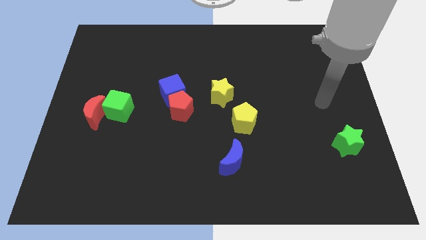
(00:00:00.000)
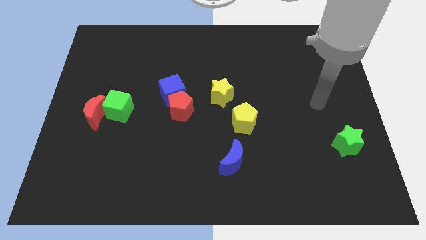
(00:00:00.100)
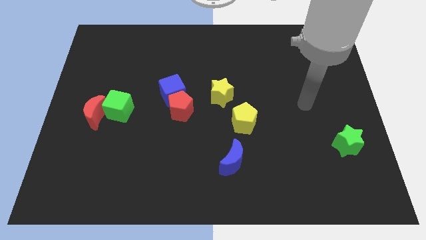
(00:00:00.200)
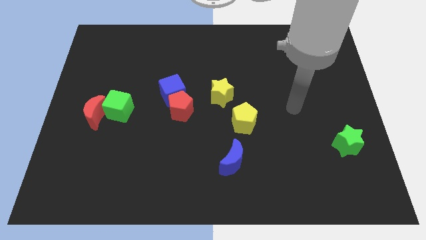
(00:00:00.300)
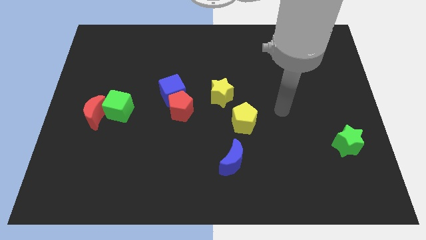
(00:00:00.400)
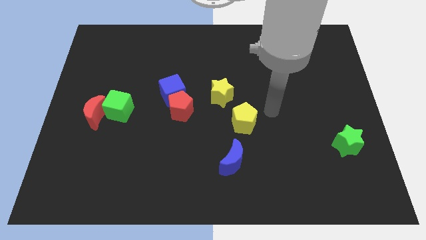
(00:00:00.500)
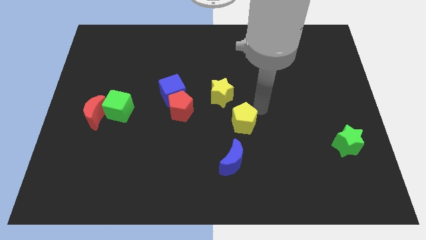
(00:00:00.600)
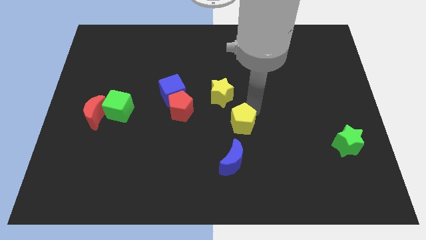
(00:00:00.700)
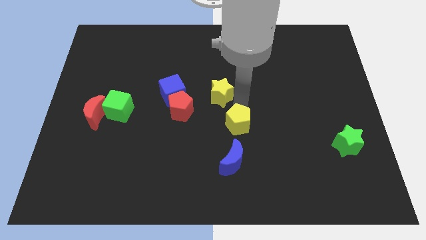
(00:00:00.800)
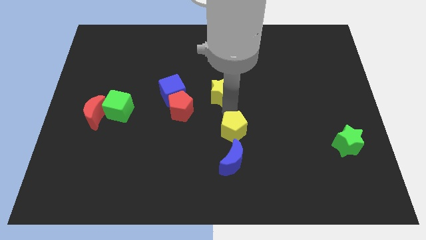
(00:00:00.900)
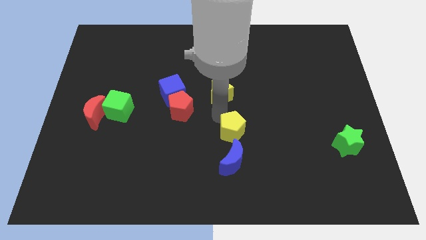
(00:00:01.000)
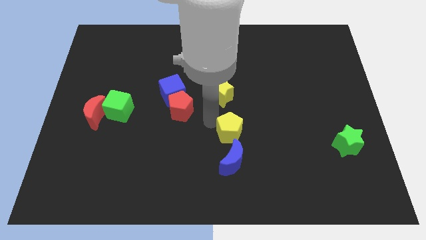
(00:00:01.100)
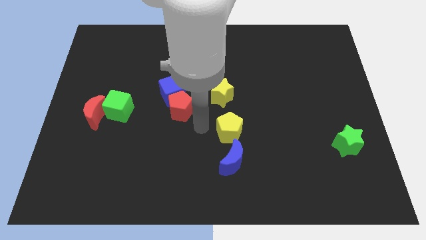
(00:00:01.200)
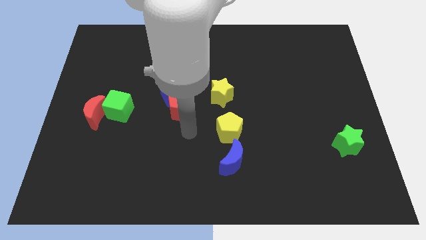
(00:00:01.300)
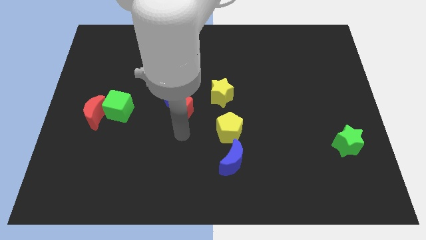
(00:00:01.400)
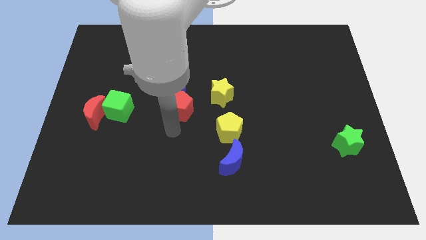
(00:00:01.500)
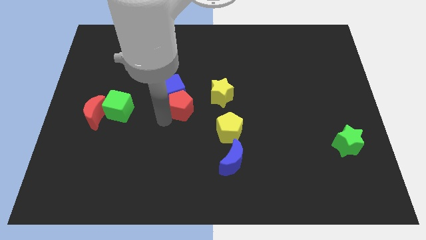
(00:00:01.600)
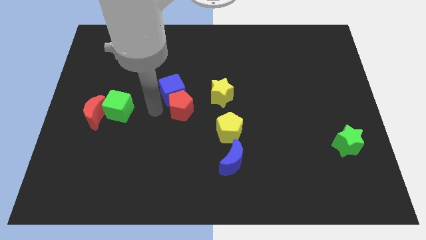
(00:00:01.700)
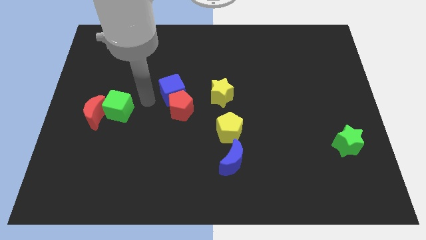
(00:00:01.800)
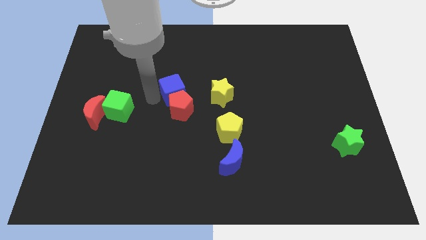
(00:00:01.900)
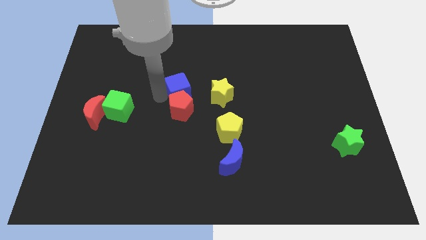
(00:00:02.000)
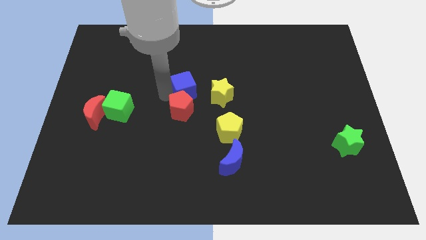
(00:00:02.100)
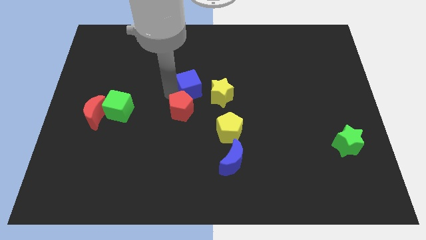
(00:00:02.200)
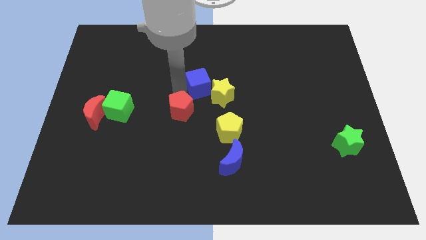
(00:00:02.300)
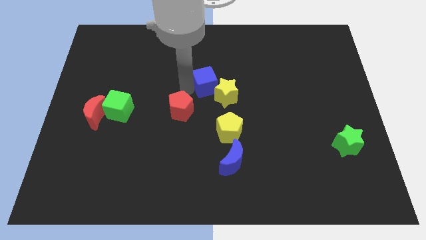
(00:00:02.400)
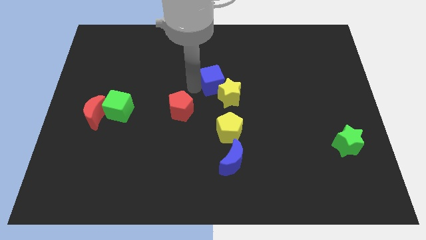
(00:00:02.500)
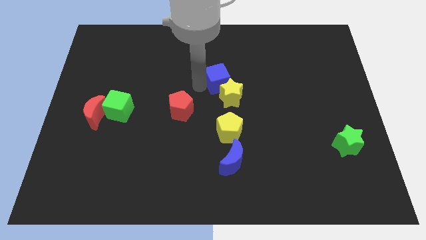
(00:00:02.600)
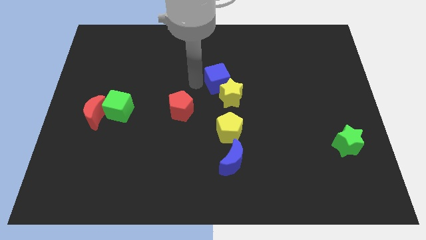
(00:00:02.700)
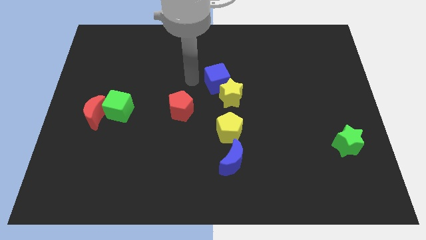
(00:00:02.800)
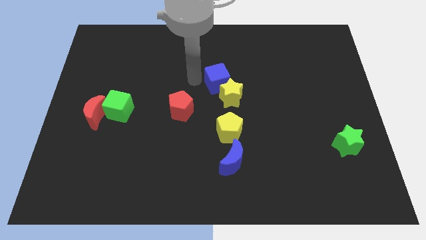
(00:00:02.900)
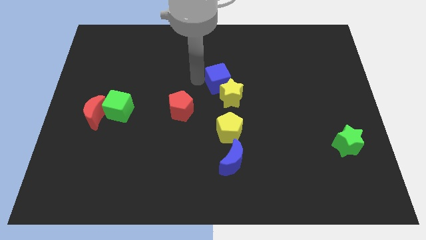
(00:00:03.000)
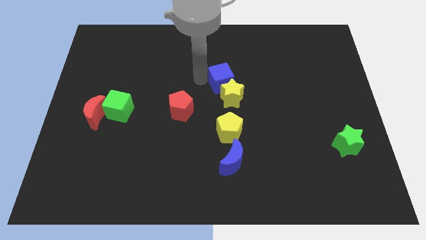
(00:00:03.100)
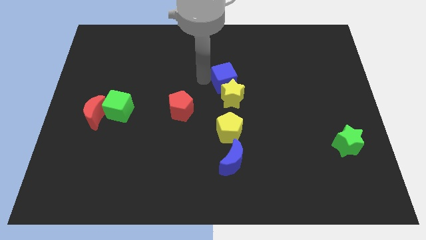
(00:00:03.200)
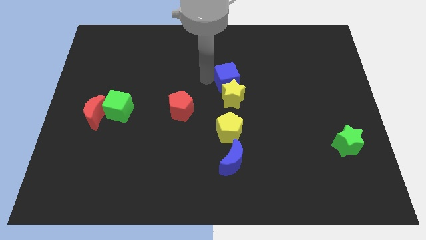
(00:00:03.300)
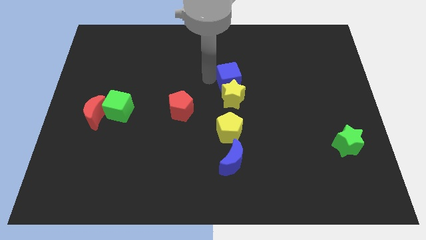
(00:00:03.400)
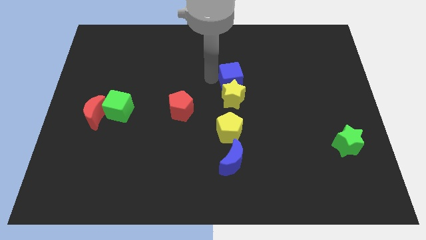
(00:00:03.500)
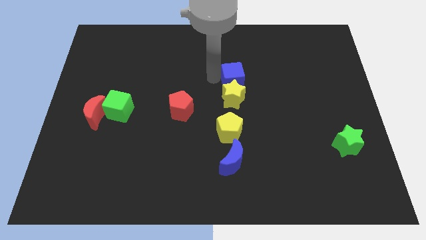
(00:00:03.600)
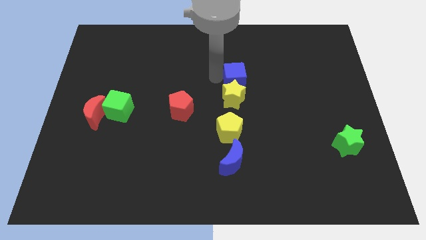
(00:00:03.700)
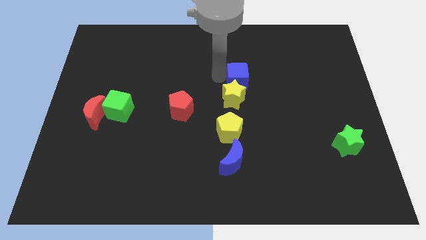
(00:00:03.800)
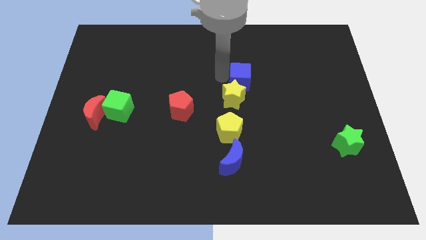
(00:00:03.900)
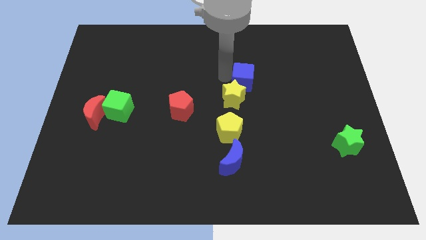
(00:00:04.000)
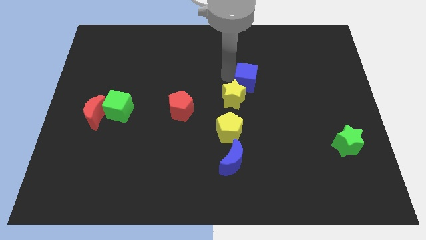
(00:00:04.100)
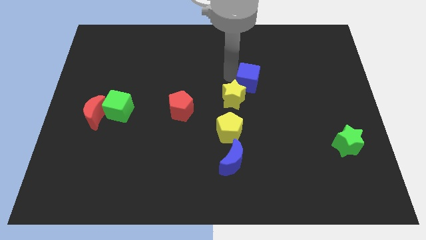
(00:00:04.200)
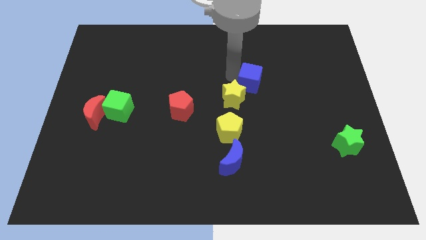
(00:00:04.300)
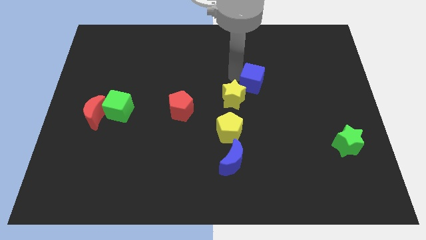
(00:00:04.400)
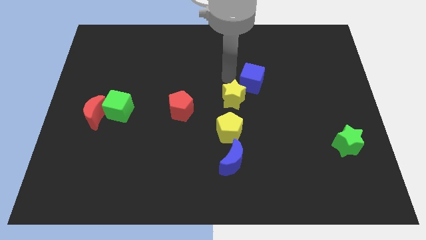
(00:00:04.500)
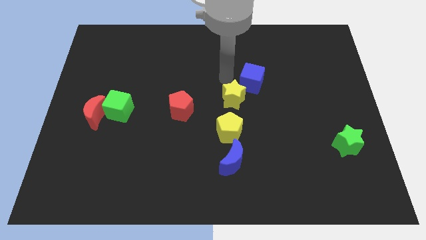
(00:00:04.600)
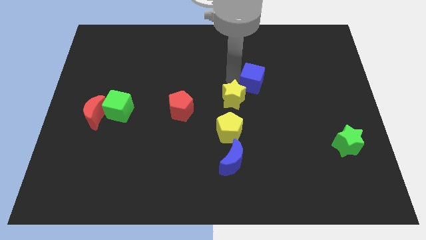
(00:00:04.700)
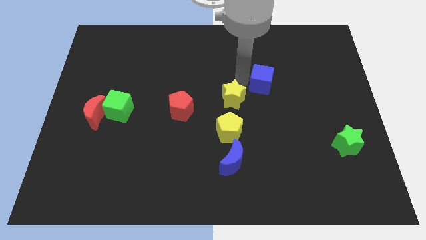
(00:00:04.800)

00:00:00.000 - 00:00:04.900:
push the blue cube right

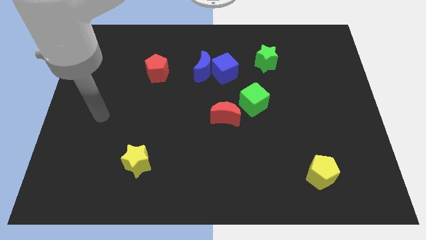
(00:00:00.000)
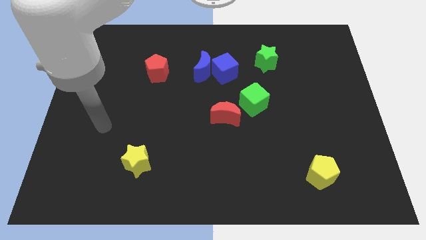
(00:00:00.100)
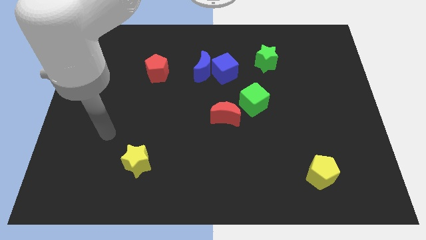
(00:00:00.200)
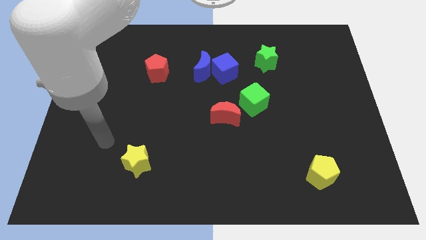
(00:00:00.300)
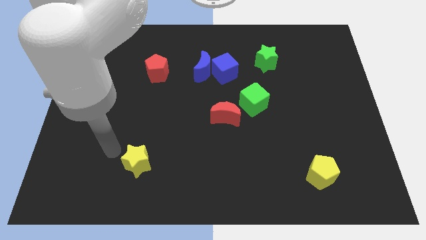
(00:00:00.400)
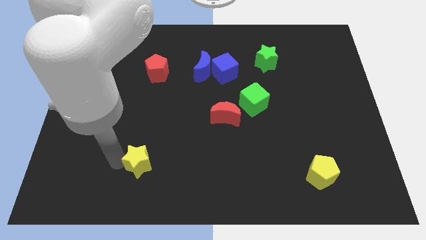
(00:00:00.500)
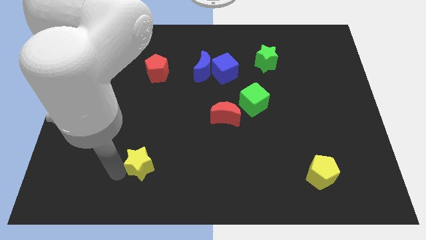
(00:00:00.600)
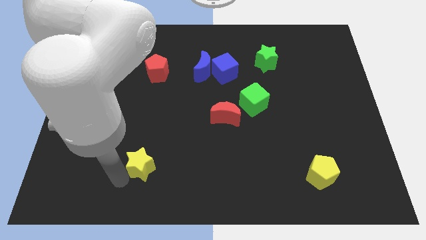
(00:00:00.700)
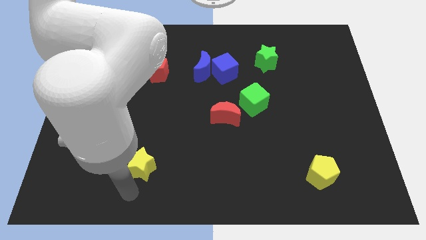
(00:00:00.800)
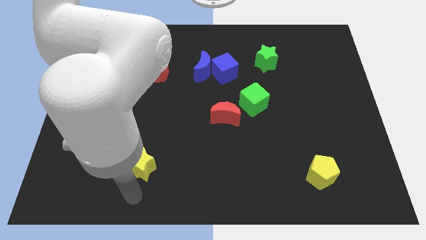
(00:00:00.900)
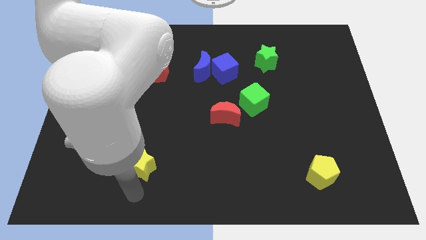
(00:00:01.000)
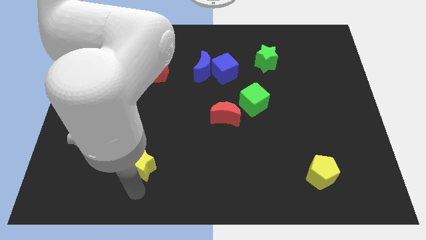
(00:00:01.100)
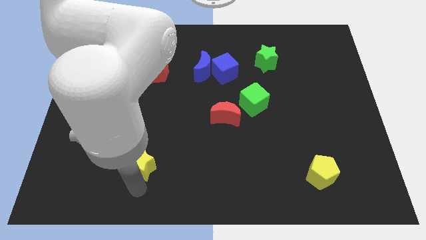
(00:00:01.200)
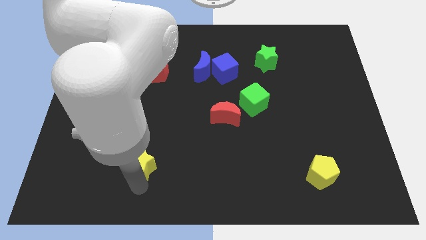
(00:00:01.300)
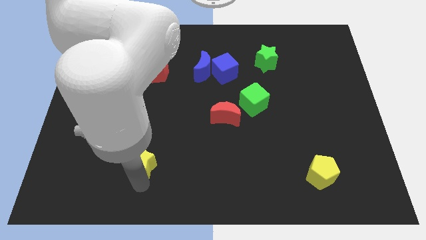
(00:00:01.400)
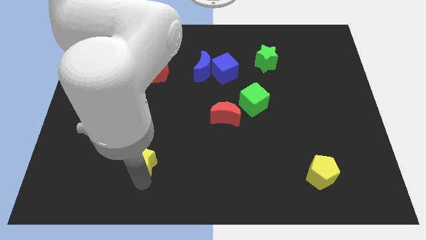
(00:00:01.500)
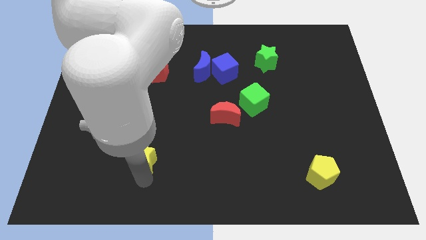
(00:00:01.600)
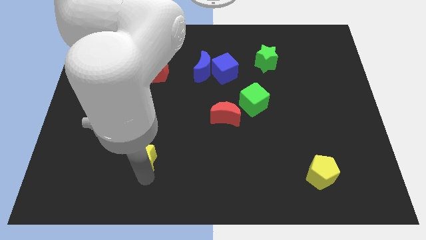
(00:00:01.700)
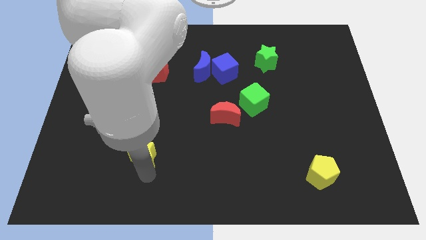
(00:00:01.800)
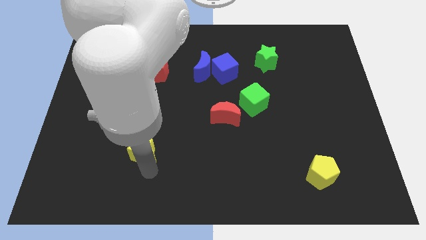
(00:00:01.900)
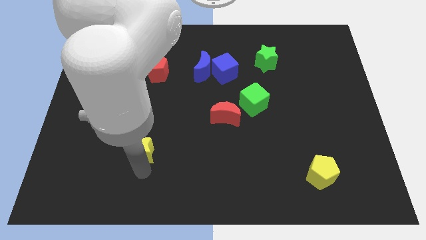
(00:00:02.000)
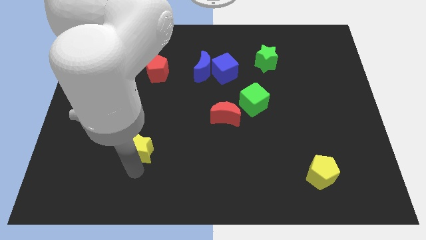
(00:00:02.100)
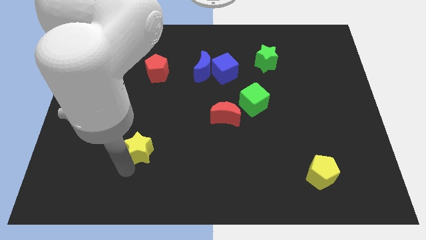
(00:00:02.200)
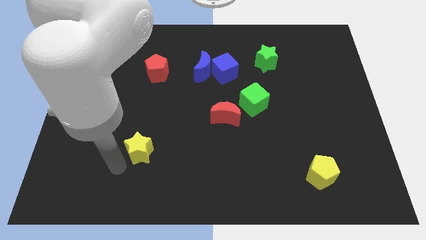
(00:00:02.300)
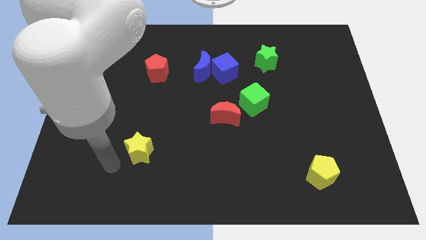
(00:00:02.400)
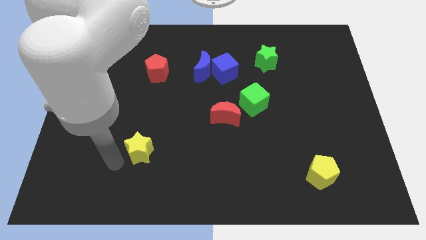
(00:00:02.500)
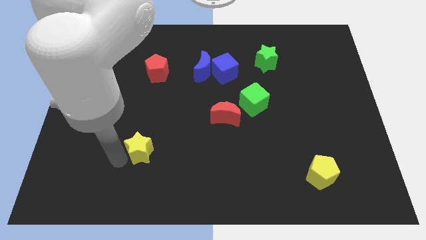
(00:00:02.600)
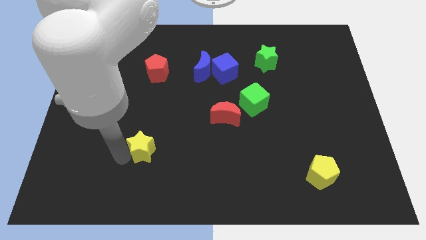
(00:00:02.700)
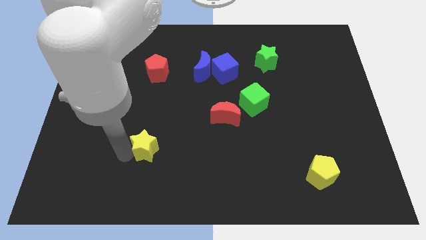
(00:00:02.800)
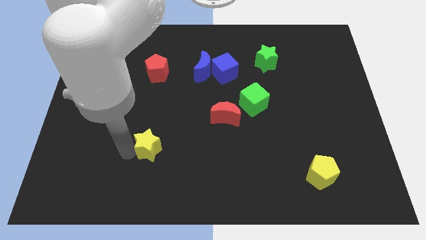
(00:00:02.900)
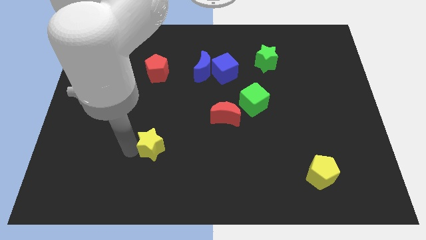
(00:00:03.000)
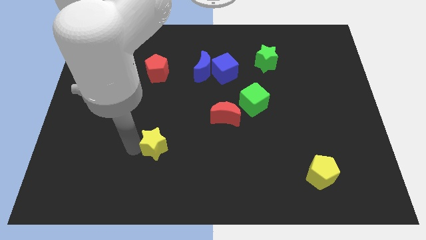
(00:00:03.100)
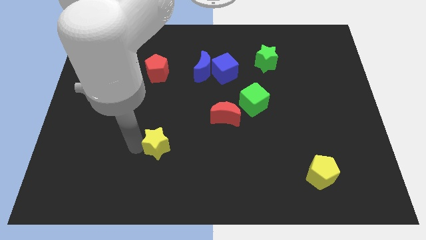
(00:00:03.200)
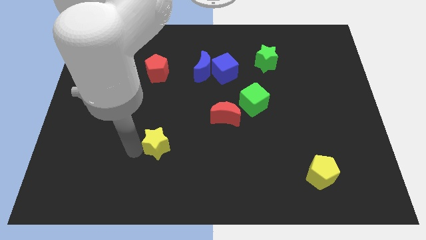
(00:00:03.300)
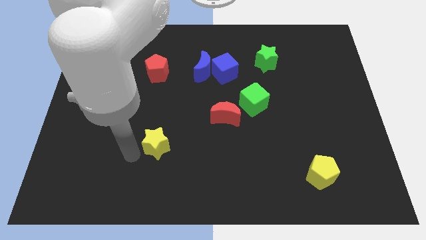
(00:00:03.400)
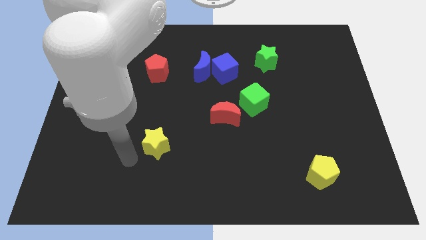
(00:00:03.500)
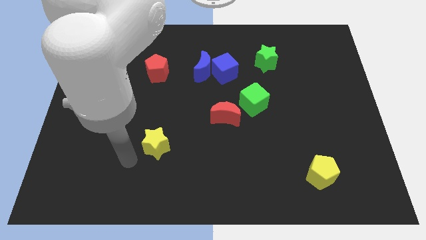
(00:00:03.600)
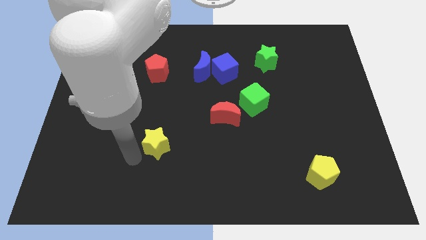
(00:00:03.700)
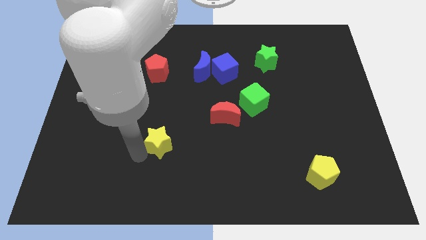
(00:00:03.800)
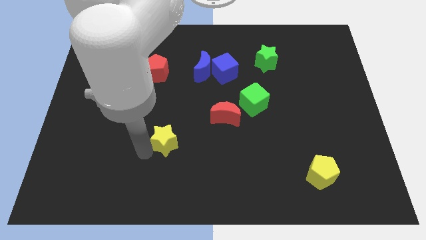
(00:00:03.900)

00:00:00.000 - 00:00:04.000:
move the yellow star somewhat up and to the right diagonally
